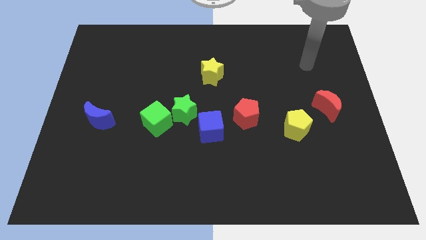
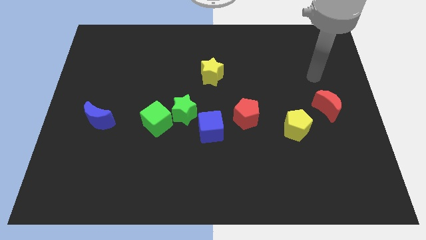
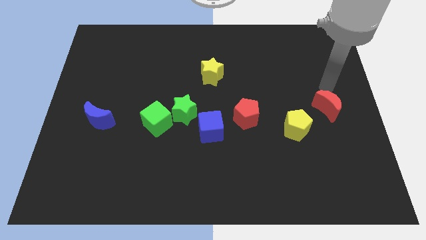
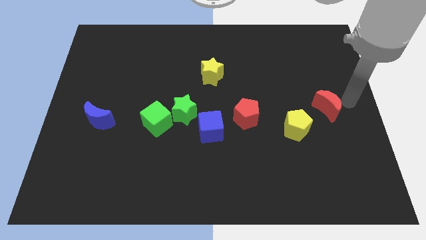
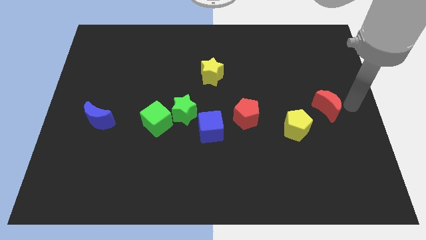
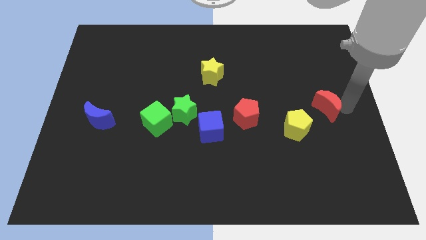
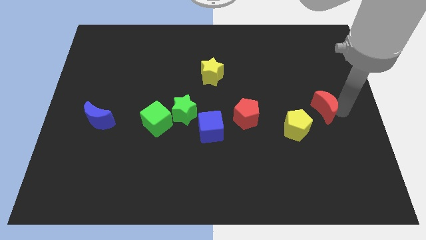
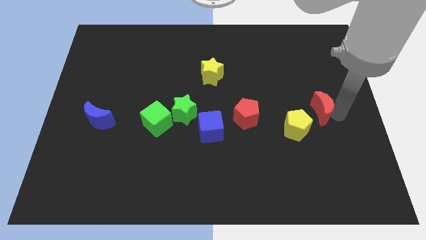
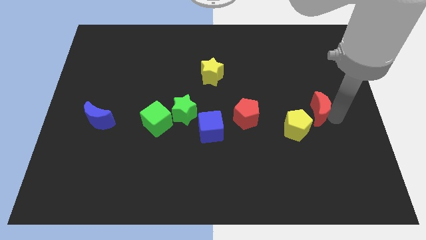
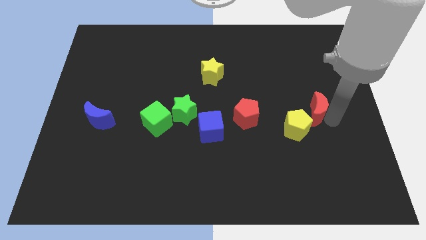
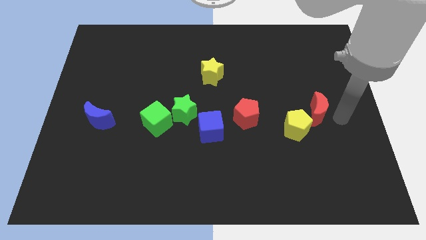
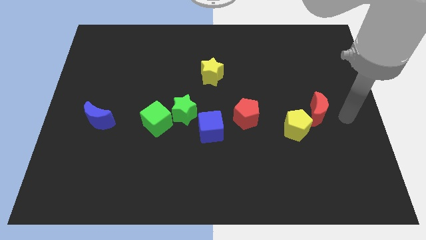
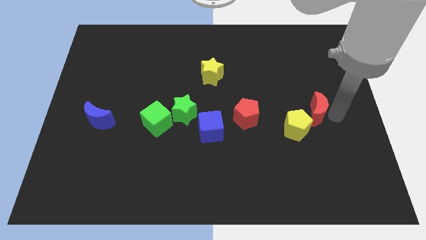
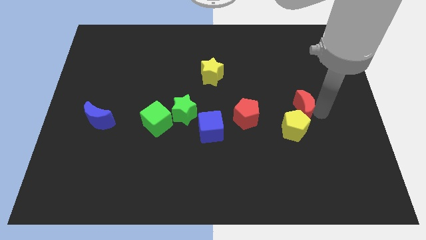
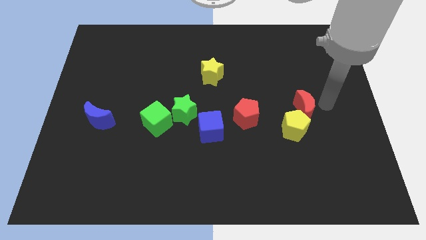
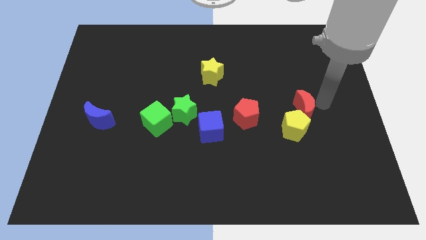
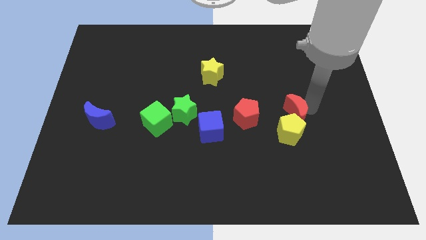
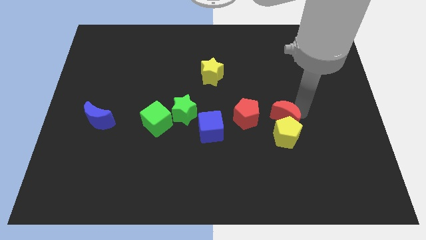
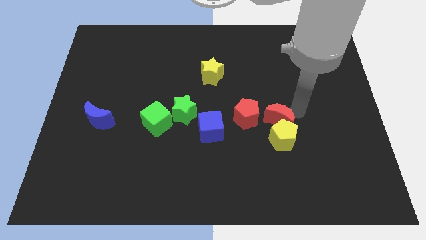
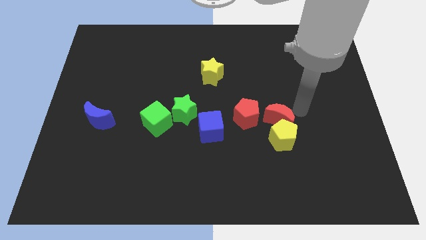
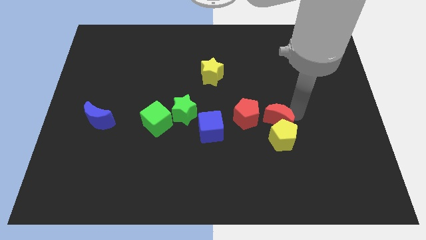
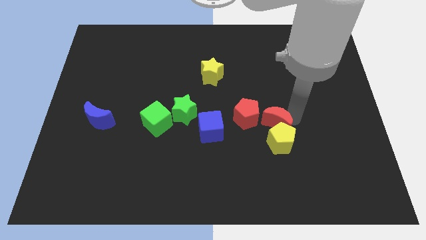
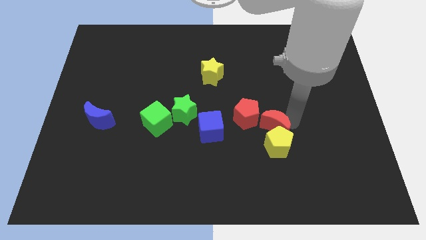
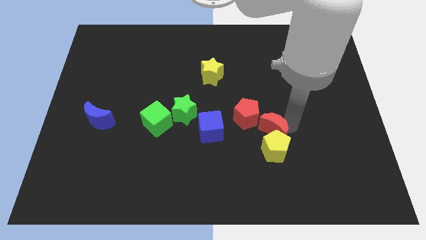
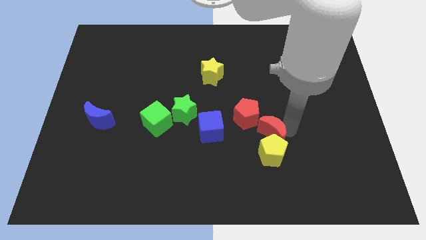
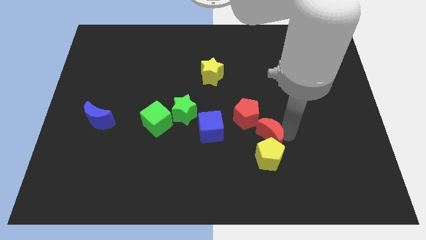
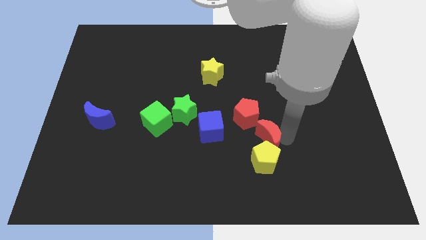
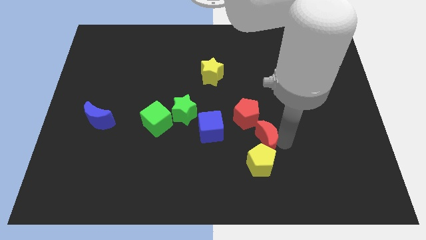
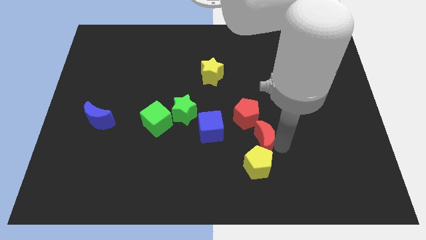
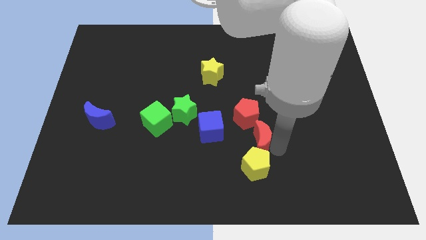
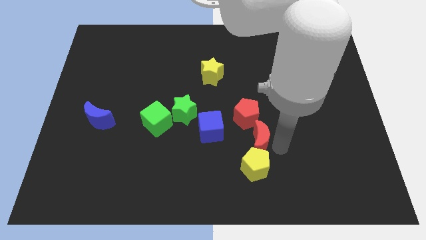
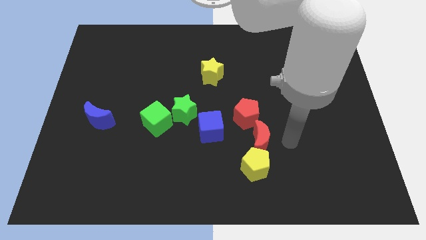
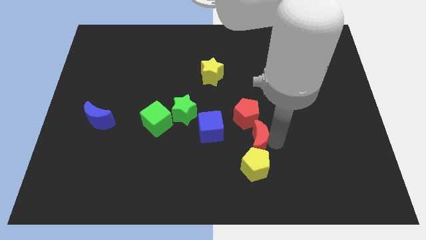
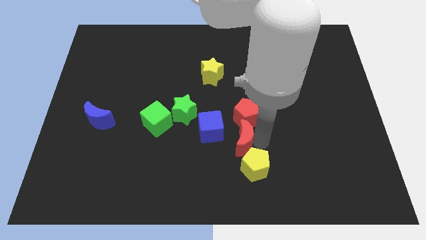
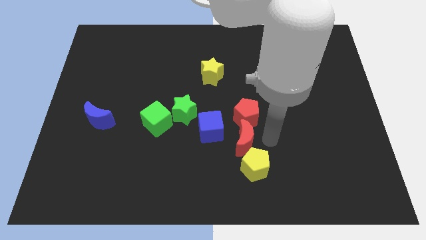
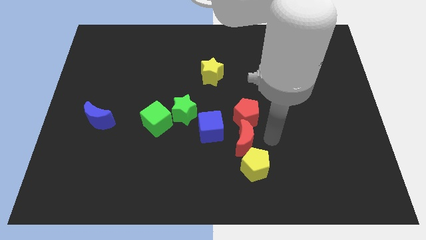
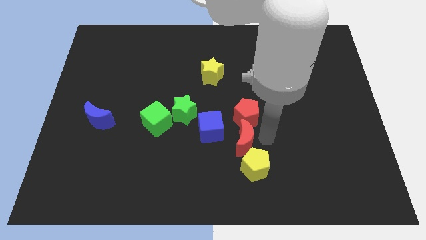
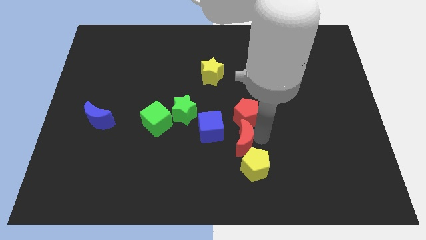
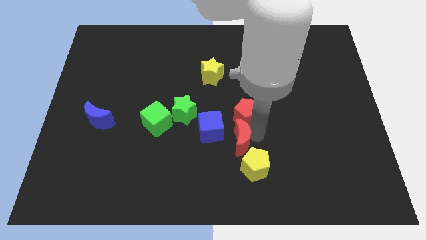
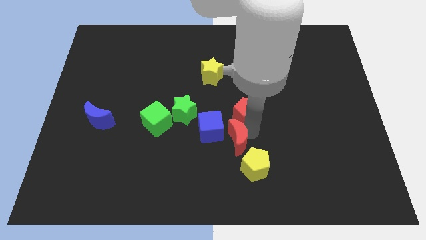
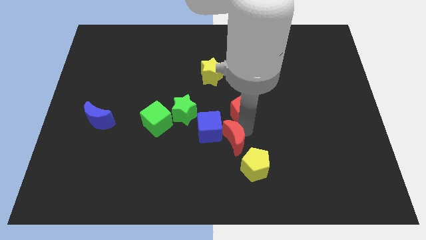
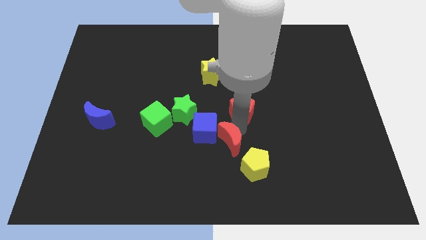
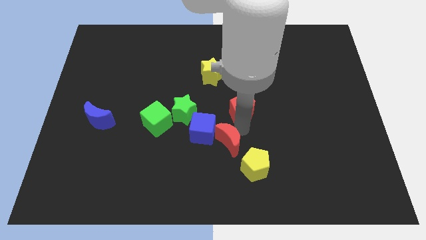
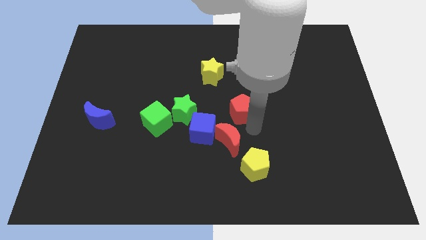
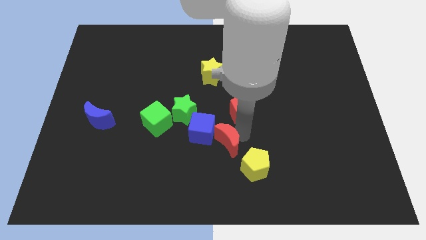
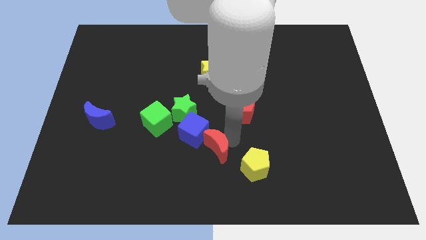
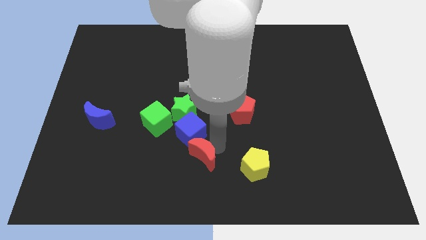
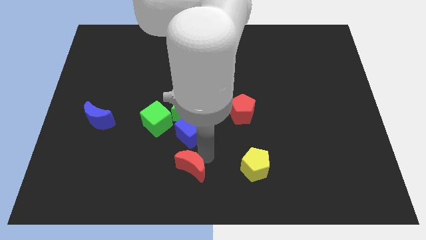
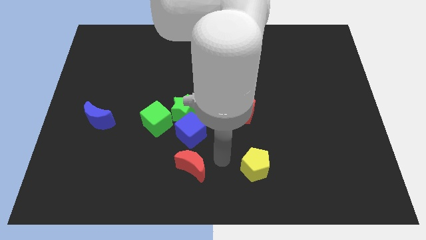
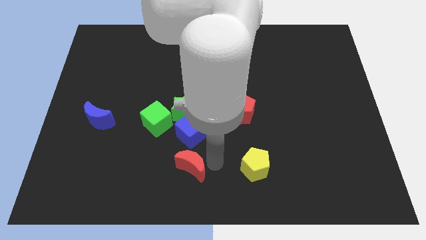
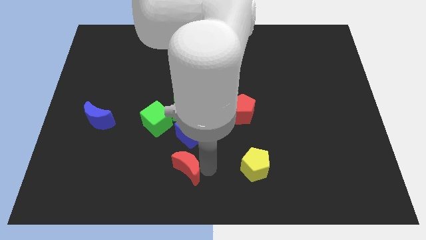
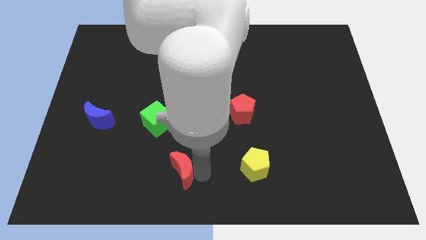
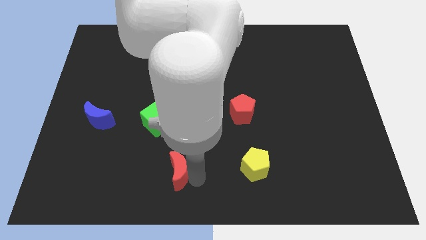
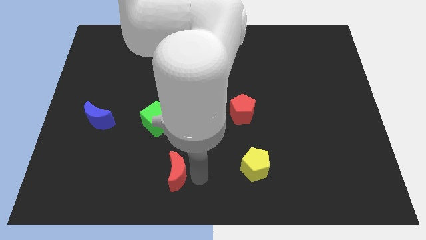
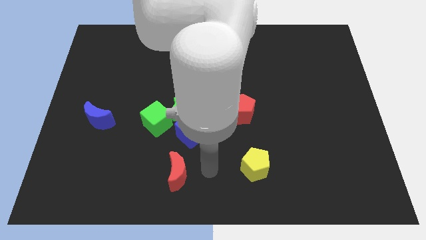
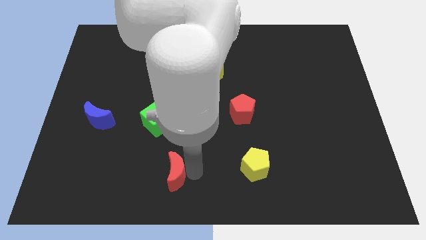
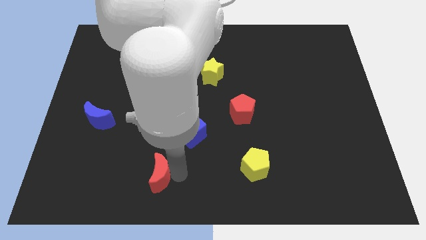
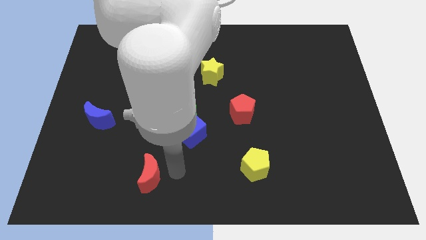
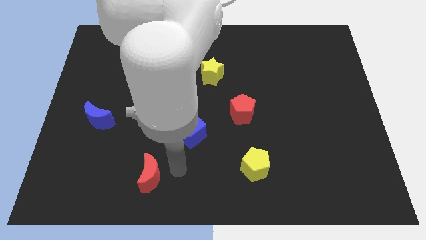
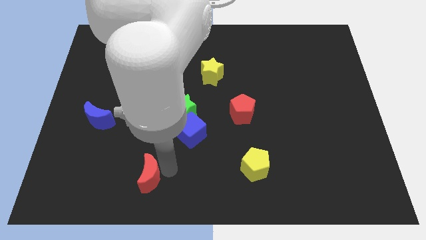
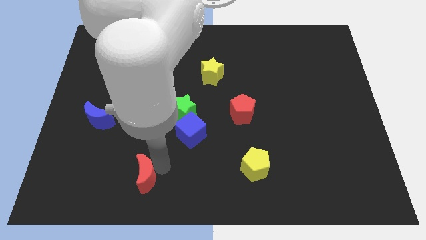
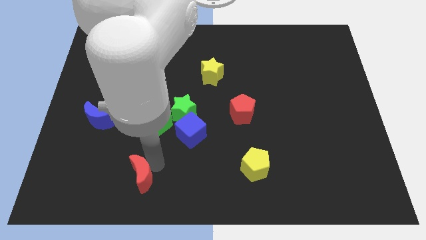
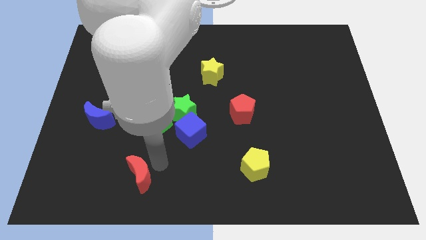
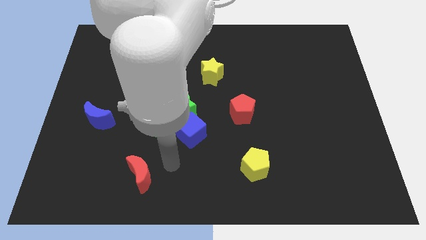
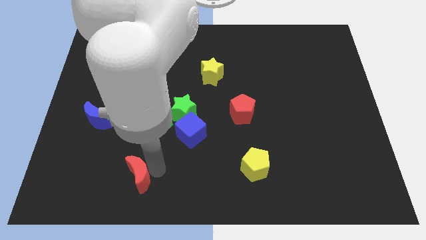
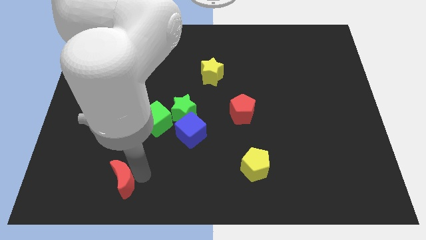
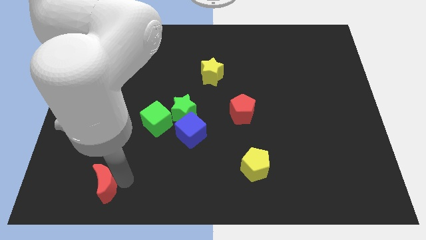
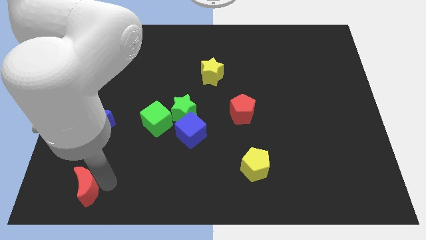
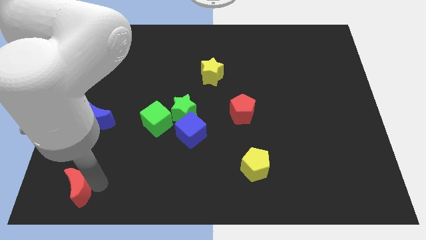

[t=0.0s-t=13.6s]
slide the red moon to the bottom left
